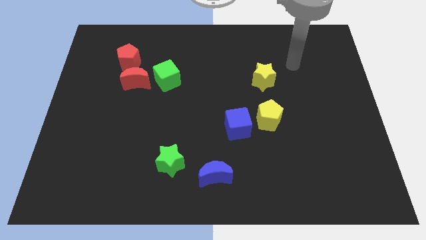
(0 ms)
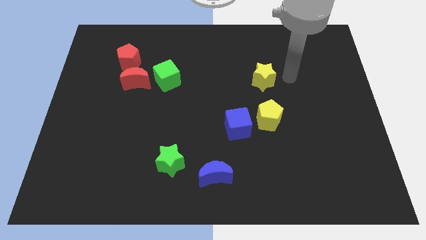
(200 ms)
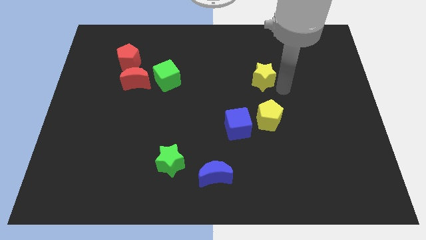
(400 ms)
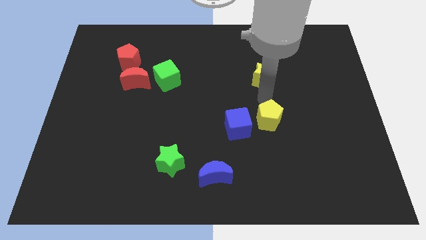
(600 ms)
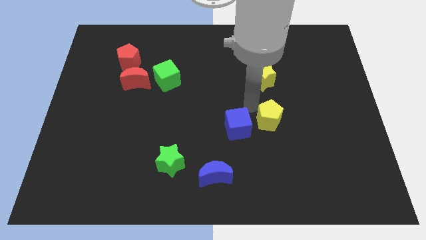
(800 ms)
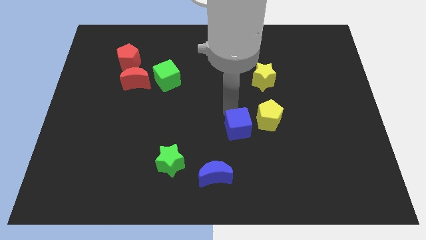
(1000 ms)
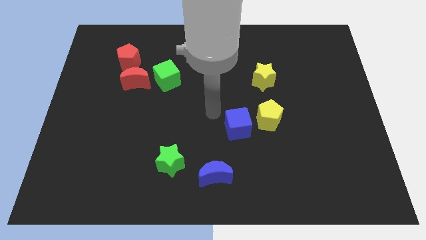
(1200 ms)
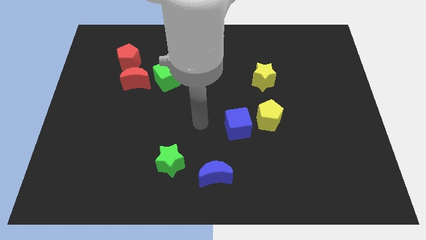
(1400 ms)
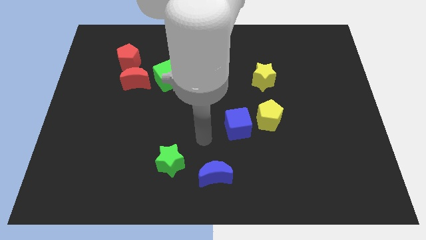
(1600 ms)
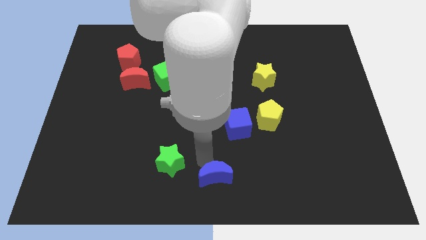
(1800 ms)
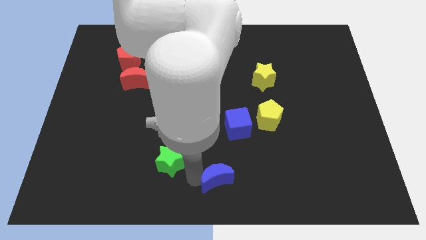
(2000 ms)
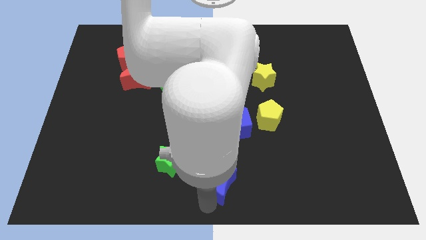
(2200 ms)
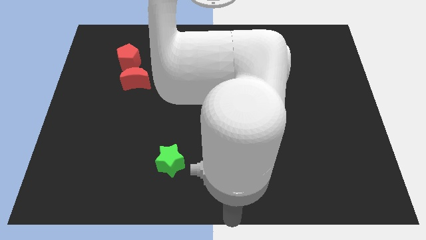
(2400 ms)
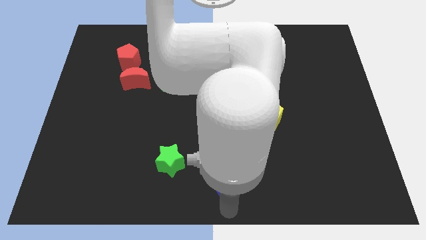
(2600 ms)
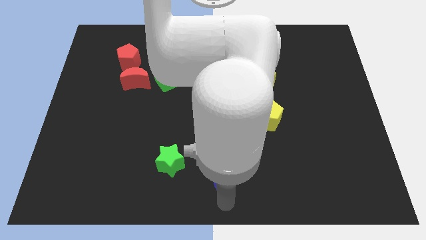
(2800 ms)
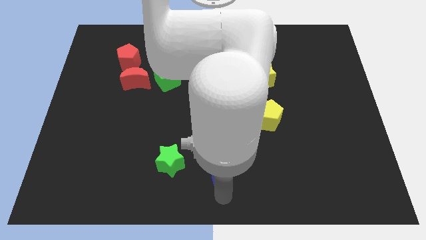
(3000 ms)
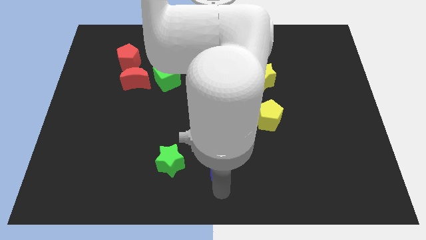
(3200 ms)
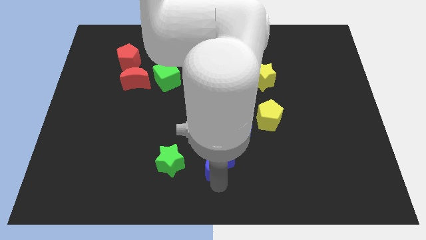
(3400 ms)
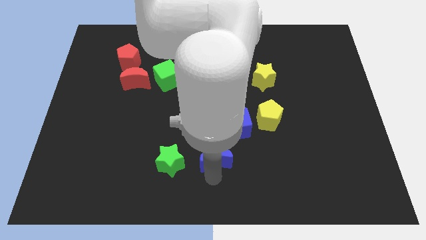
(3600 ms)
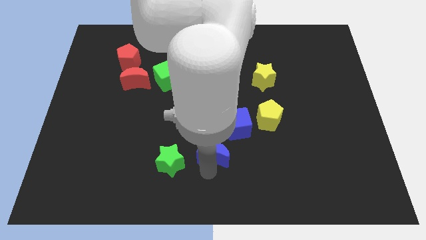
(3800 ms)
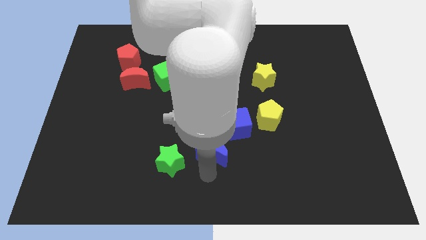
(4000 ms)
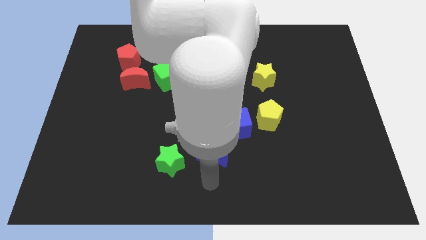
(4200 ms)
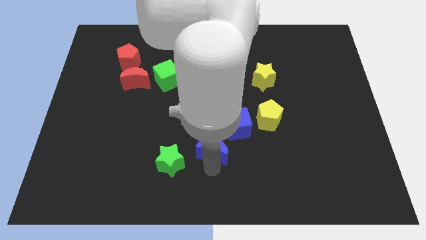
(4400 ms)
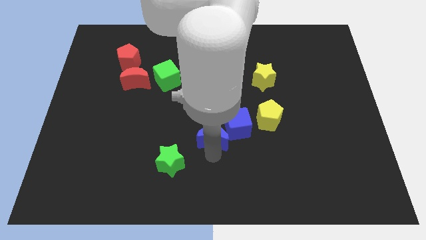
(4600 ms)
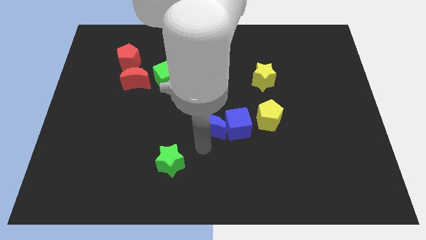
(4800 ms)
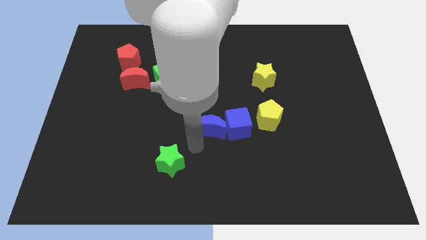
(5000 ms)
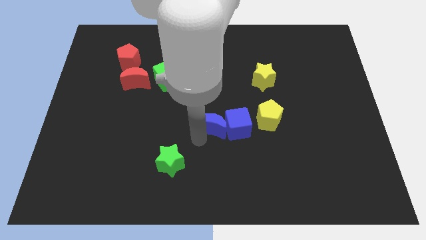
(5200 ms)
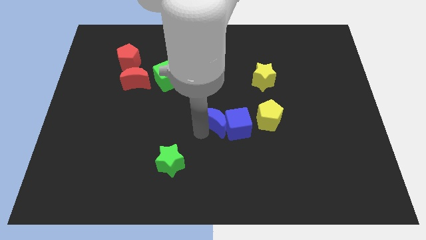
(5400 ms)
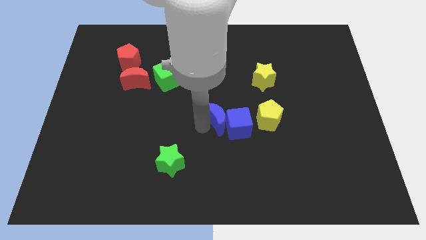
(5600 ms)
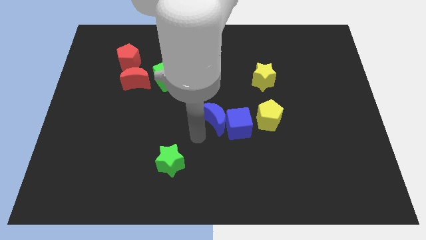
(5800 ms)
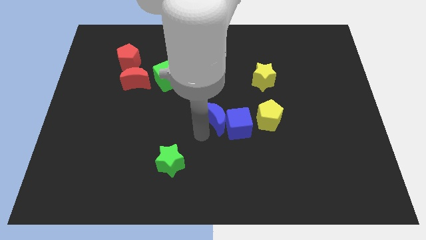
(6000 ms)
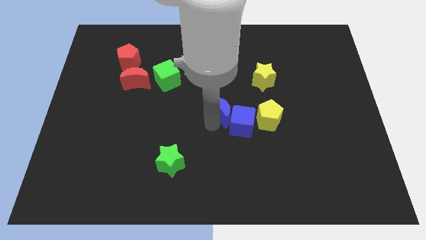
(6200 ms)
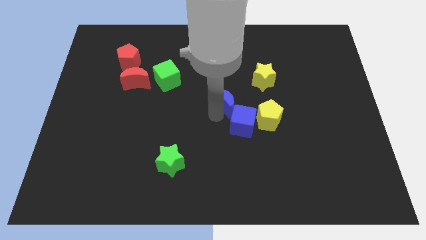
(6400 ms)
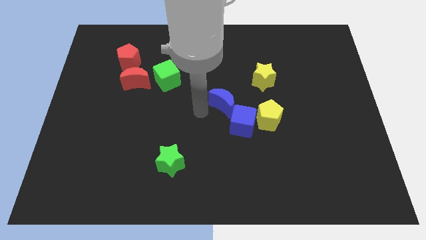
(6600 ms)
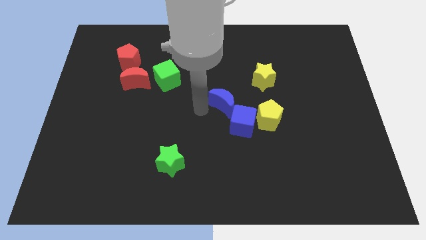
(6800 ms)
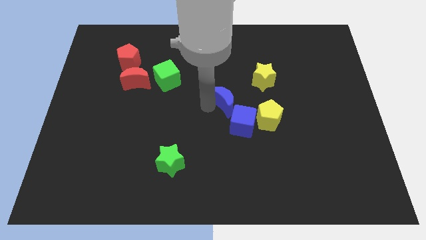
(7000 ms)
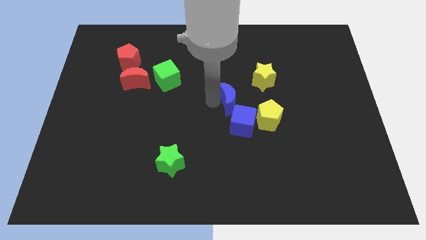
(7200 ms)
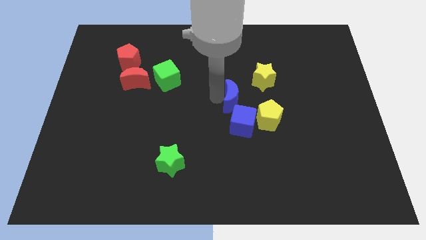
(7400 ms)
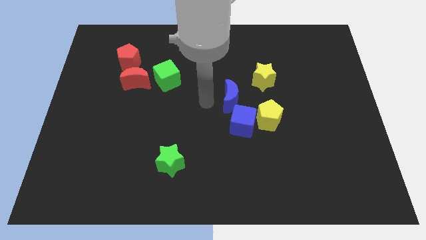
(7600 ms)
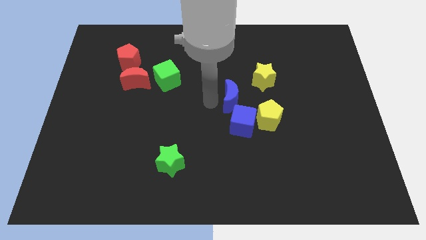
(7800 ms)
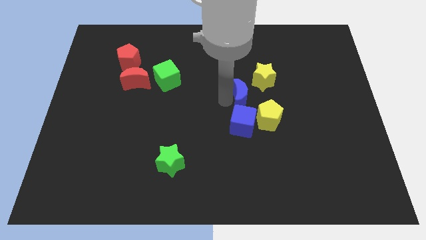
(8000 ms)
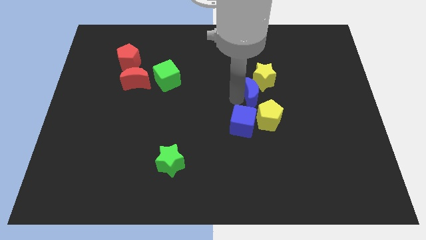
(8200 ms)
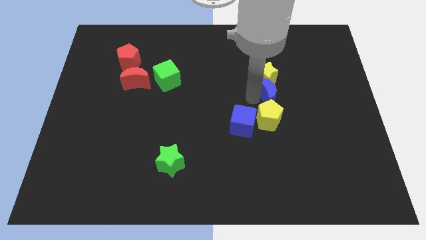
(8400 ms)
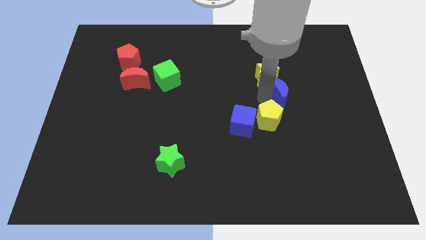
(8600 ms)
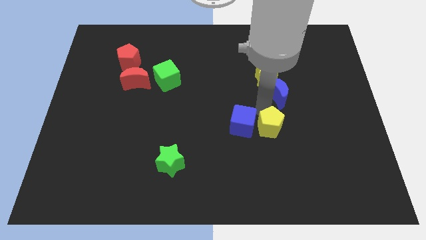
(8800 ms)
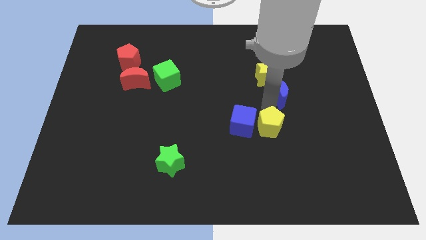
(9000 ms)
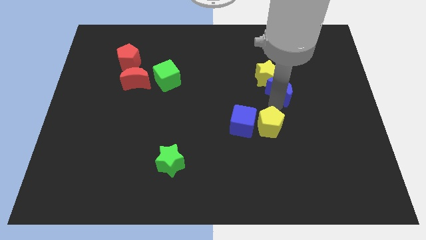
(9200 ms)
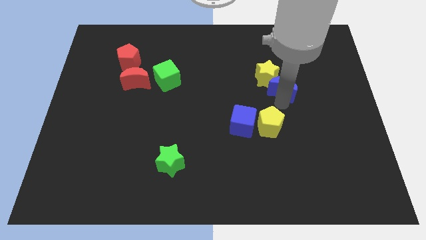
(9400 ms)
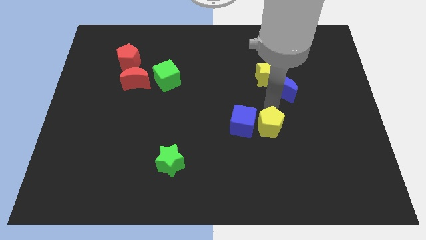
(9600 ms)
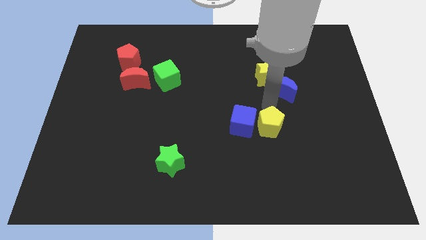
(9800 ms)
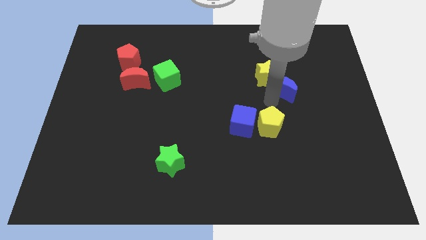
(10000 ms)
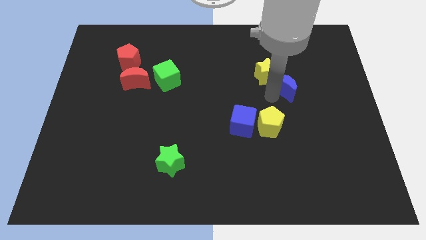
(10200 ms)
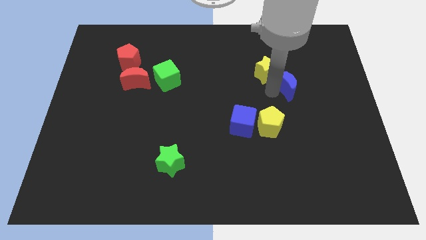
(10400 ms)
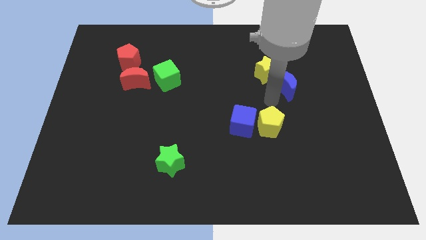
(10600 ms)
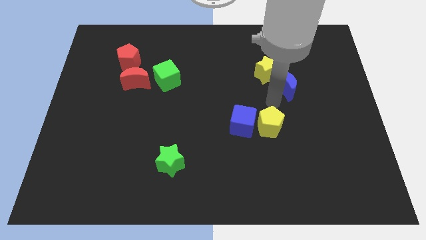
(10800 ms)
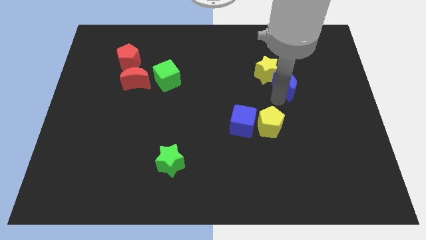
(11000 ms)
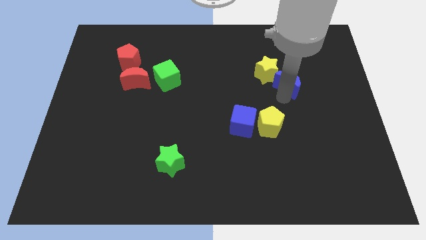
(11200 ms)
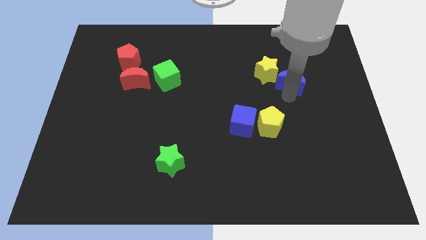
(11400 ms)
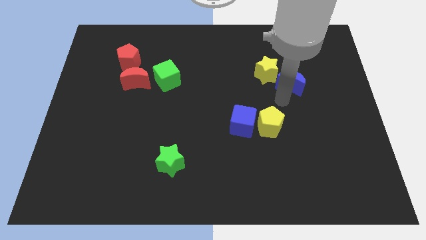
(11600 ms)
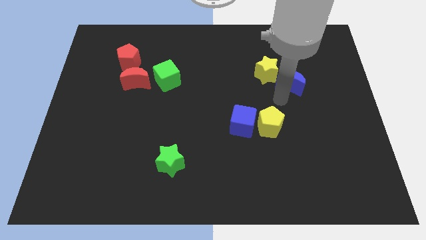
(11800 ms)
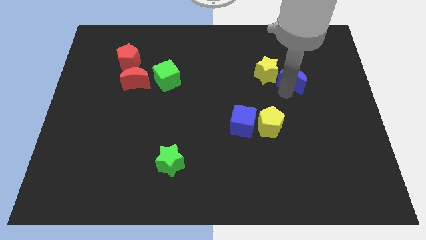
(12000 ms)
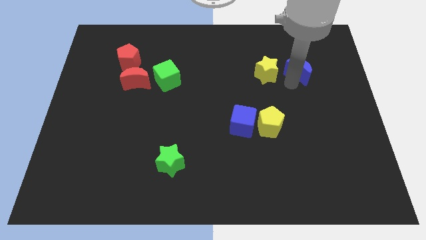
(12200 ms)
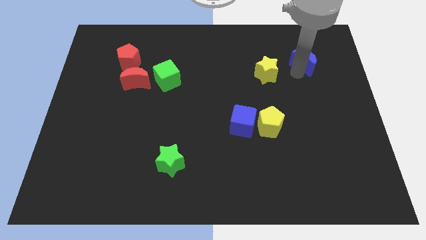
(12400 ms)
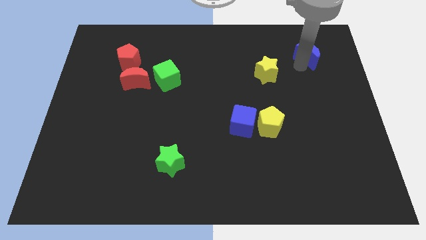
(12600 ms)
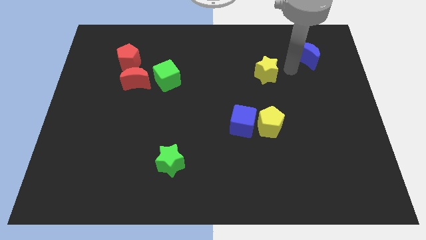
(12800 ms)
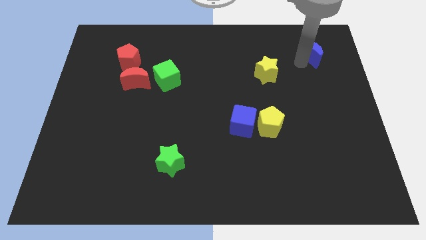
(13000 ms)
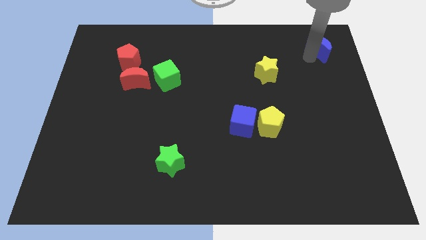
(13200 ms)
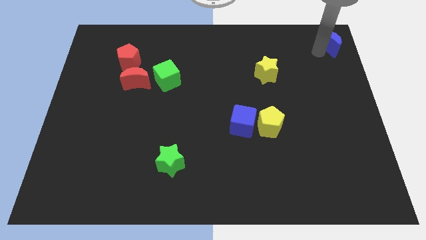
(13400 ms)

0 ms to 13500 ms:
slide the blue moon to the upper right corner

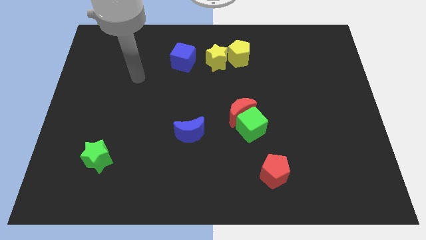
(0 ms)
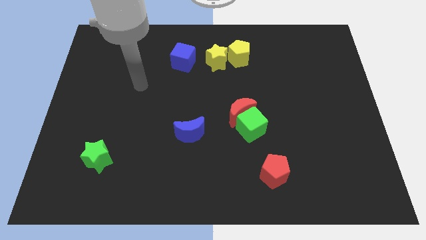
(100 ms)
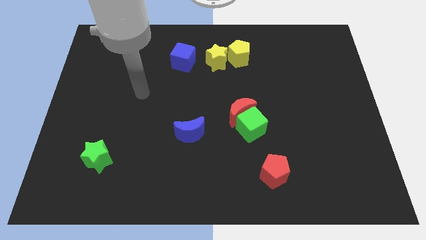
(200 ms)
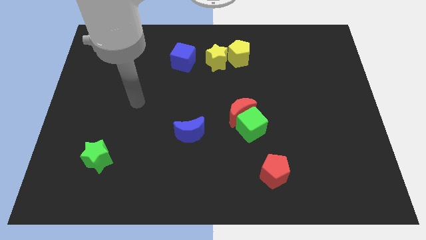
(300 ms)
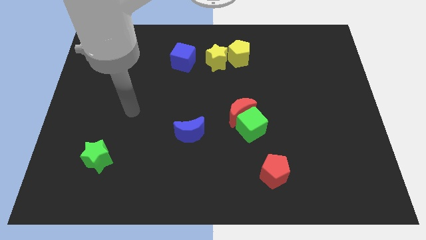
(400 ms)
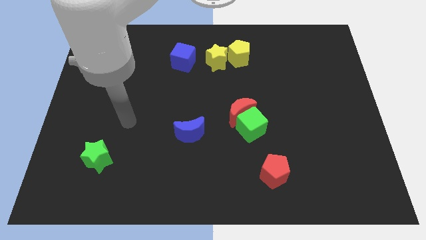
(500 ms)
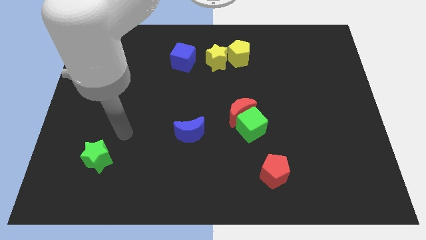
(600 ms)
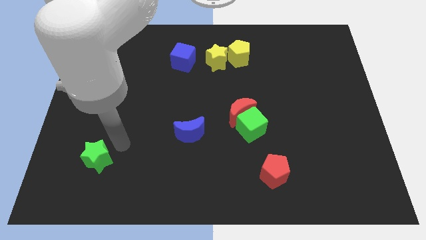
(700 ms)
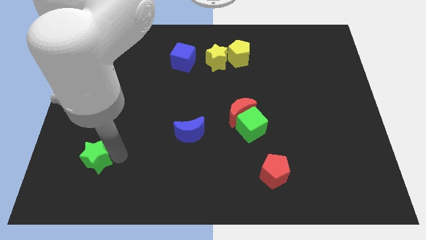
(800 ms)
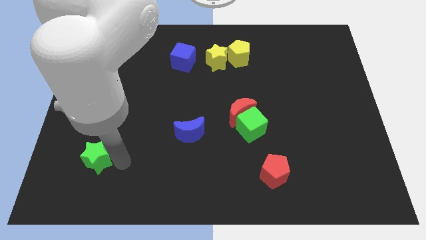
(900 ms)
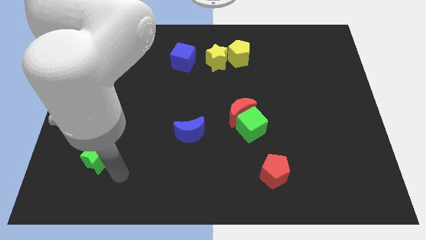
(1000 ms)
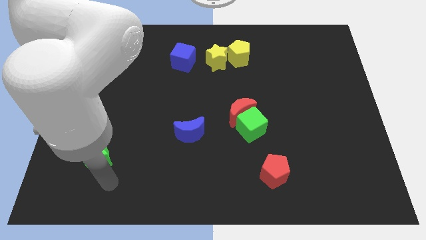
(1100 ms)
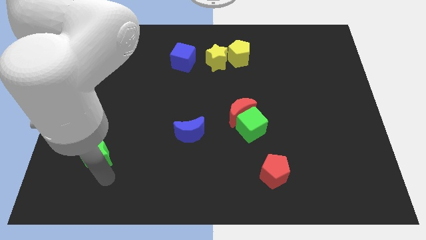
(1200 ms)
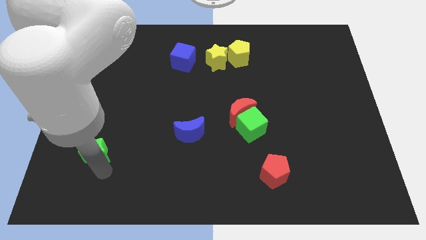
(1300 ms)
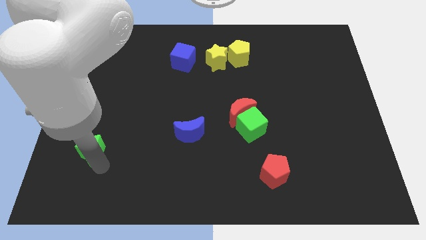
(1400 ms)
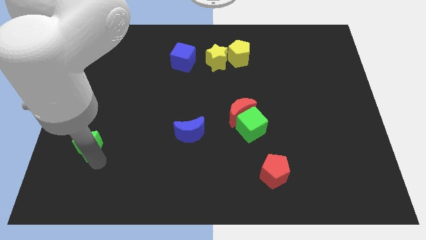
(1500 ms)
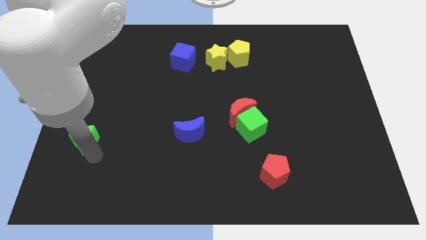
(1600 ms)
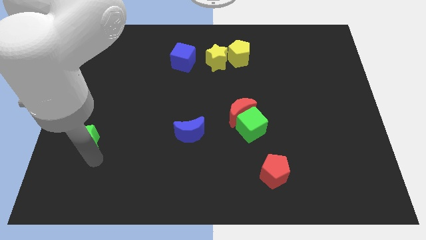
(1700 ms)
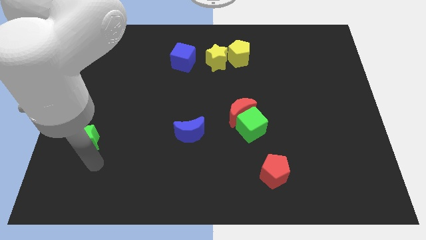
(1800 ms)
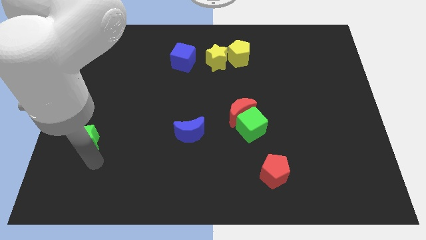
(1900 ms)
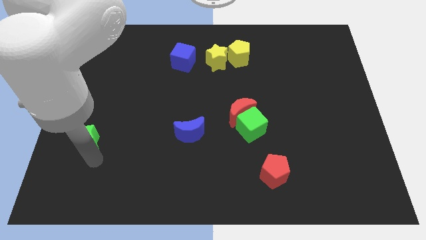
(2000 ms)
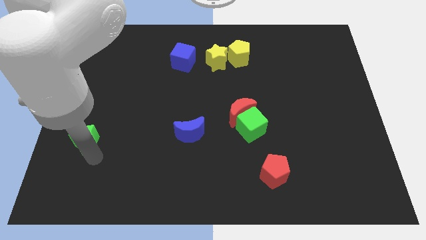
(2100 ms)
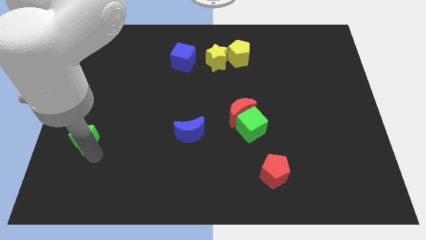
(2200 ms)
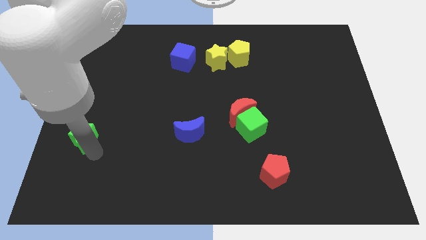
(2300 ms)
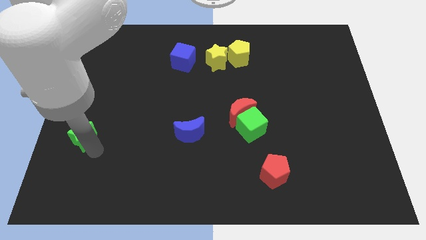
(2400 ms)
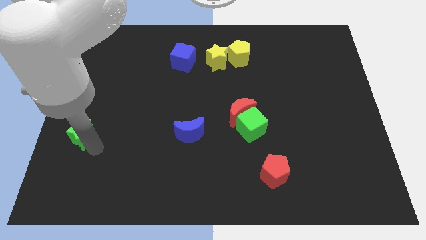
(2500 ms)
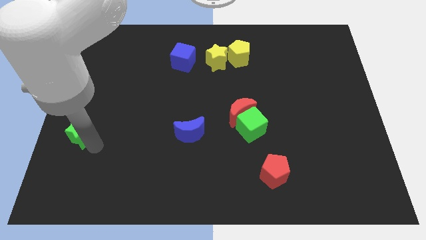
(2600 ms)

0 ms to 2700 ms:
push the green star to the left side
